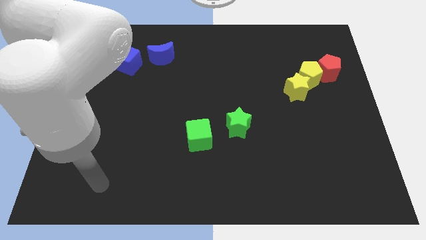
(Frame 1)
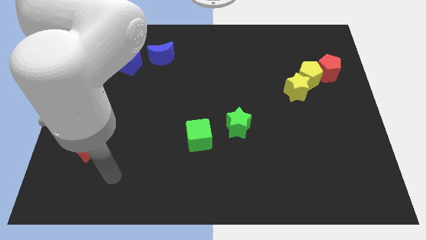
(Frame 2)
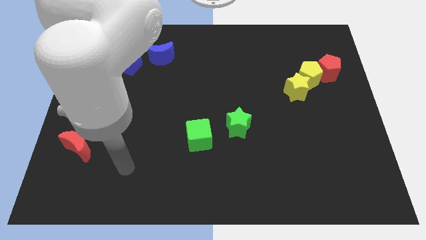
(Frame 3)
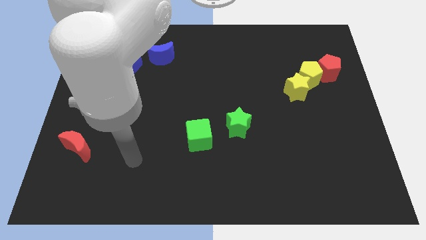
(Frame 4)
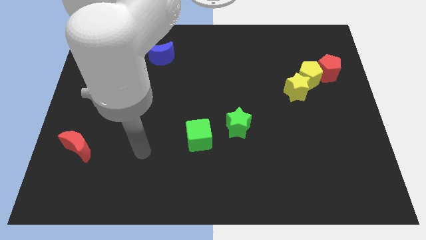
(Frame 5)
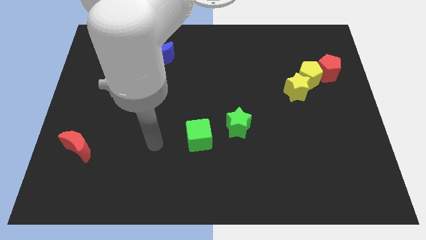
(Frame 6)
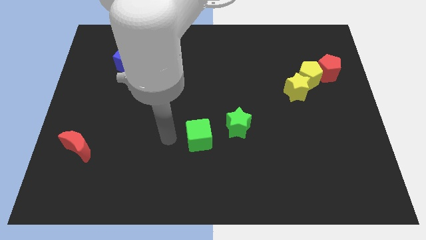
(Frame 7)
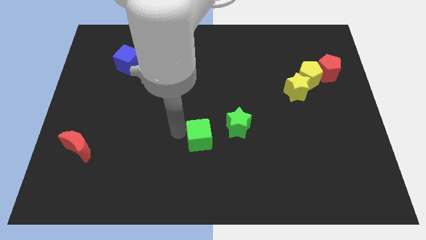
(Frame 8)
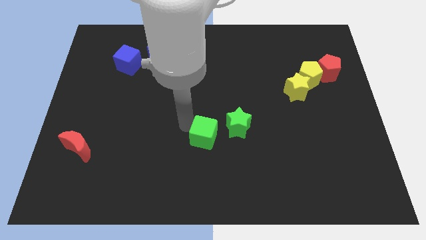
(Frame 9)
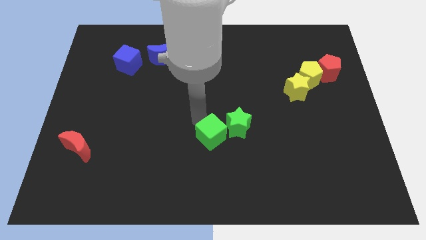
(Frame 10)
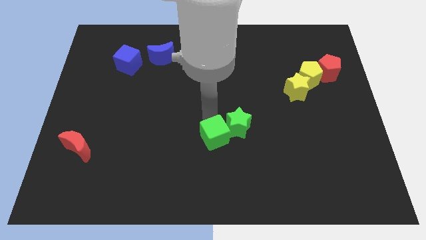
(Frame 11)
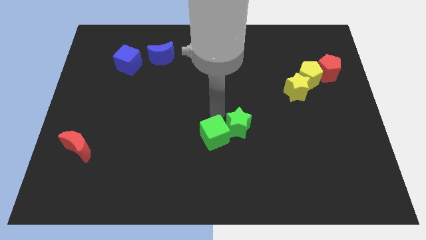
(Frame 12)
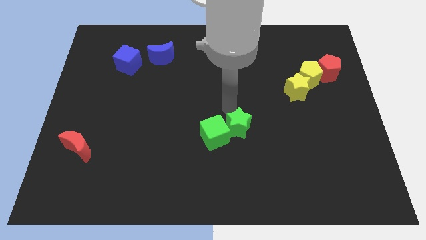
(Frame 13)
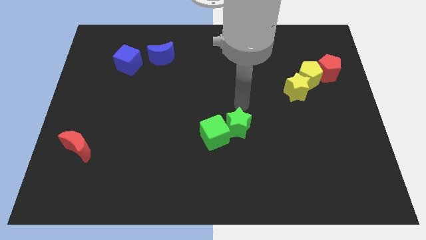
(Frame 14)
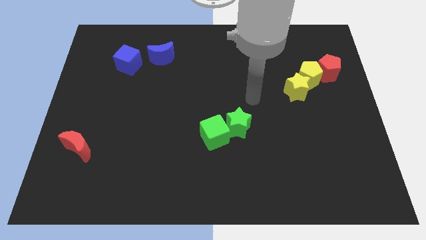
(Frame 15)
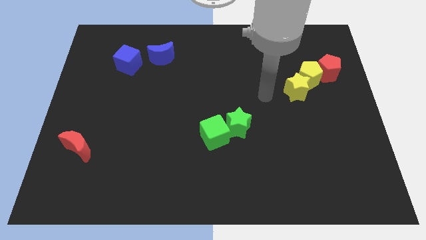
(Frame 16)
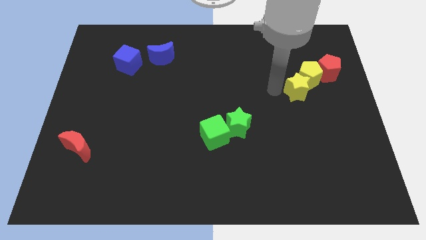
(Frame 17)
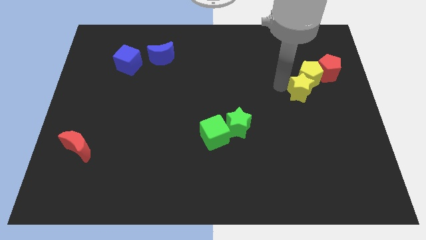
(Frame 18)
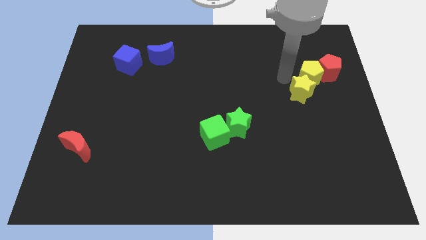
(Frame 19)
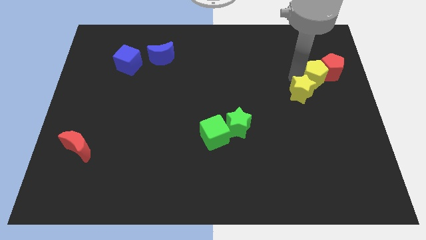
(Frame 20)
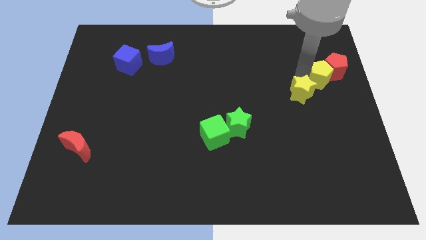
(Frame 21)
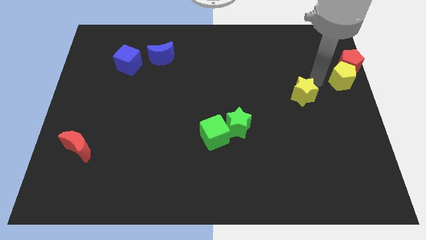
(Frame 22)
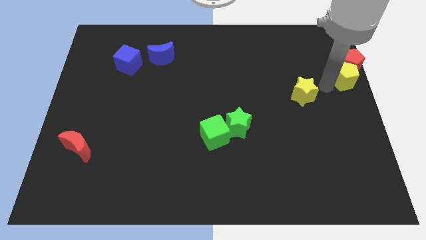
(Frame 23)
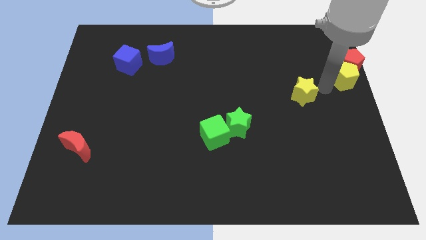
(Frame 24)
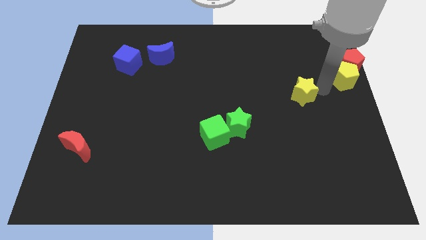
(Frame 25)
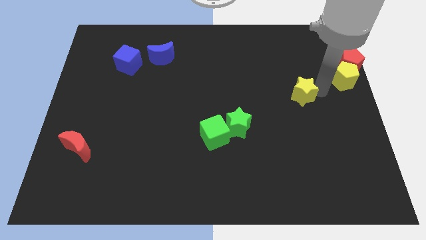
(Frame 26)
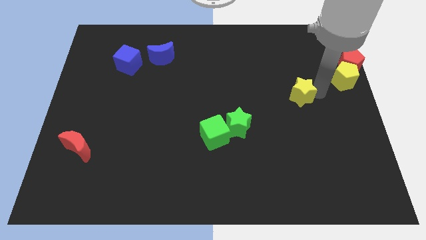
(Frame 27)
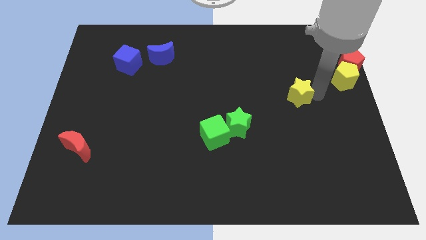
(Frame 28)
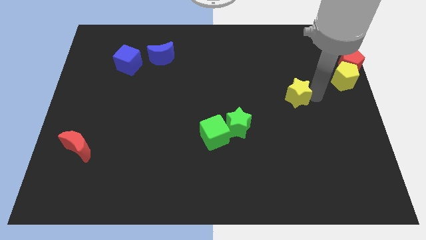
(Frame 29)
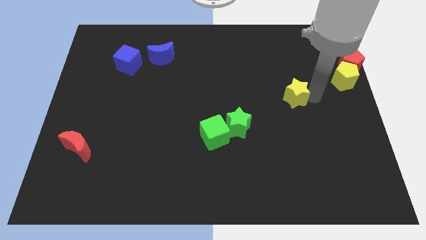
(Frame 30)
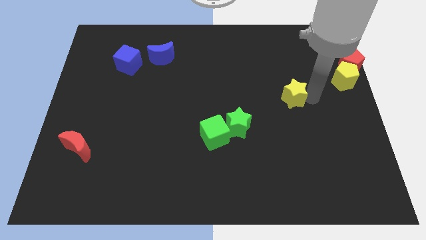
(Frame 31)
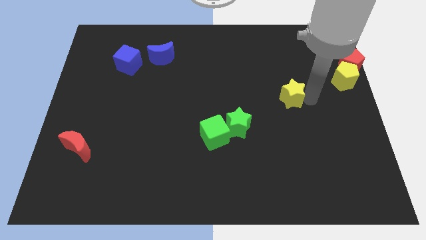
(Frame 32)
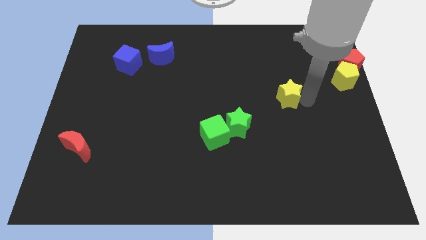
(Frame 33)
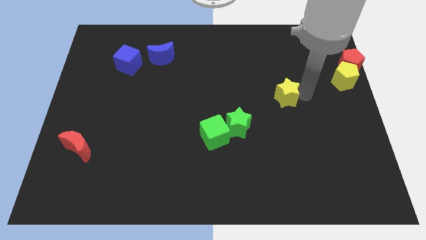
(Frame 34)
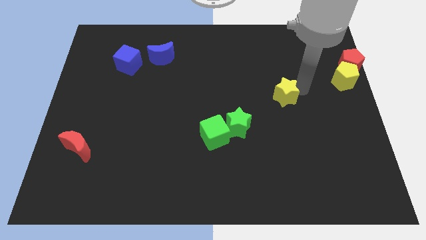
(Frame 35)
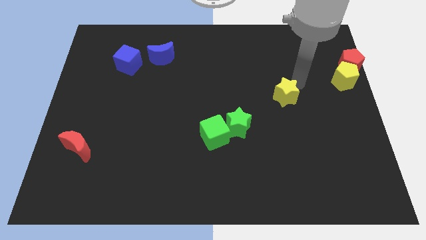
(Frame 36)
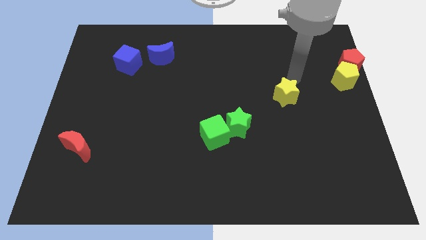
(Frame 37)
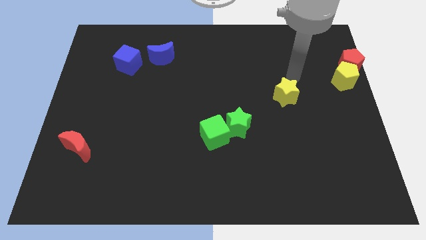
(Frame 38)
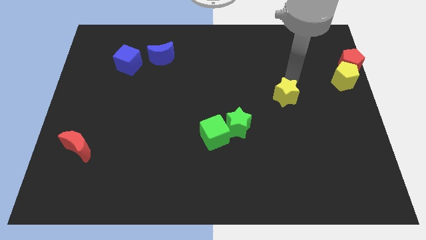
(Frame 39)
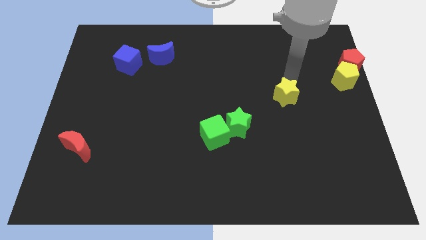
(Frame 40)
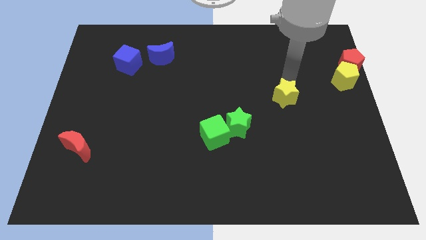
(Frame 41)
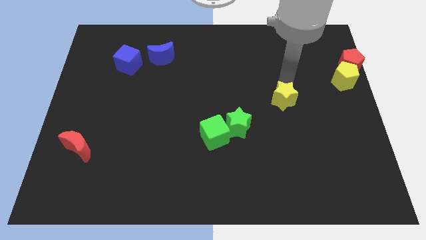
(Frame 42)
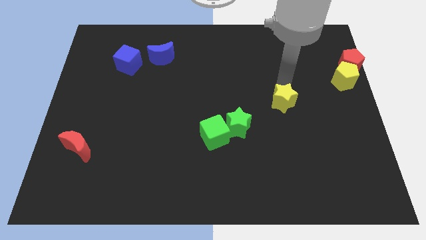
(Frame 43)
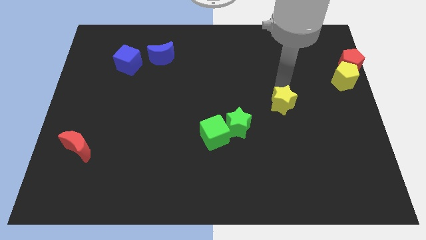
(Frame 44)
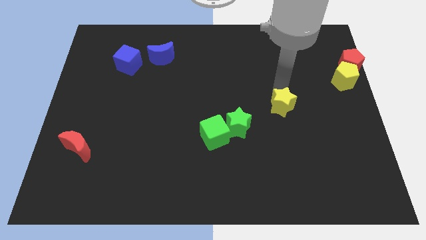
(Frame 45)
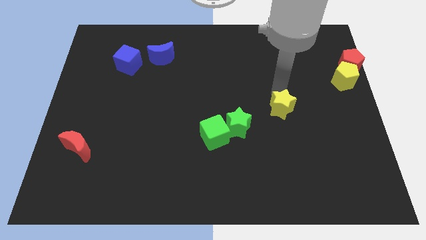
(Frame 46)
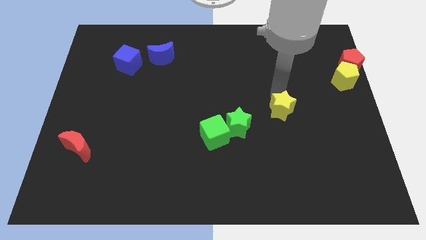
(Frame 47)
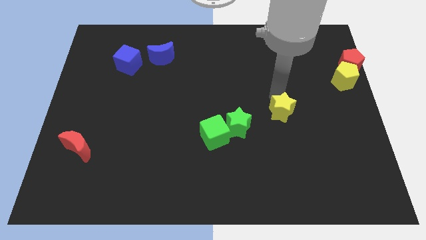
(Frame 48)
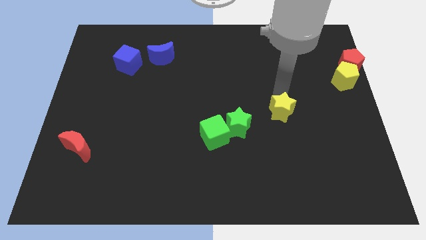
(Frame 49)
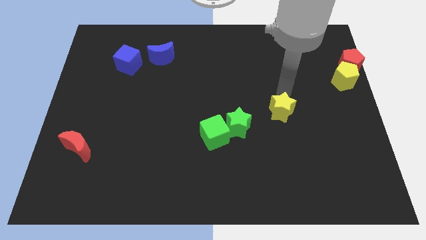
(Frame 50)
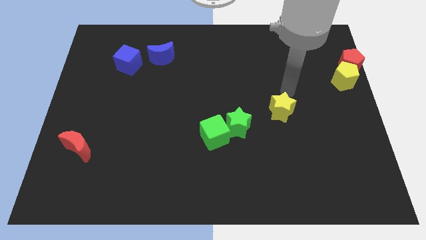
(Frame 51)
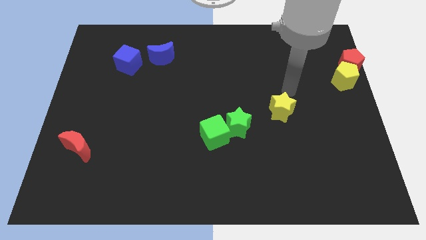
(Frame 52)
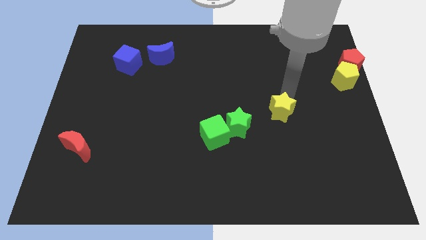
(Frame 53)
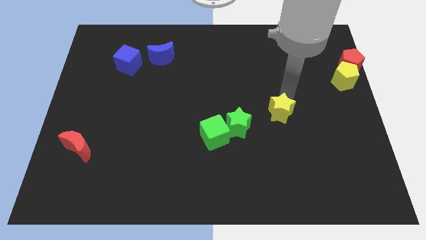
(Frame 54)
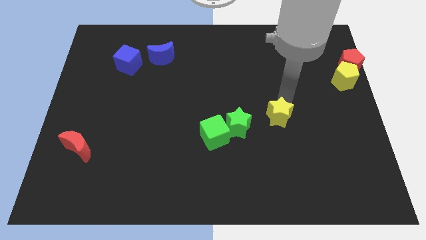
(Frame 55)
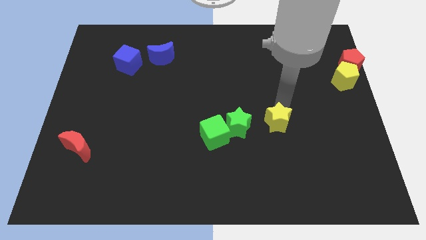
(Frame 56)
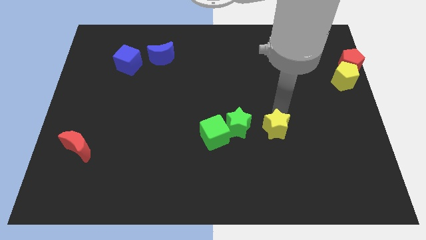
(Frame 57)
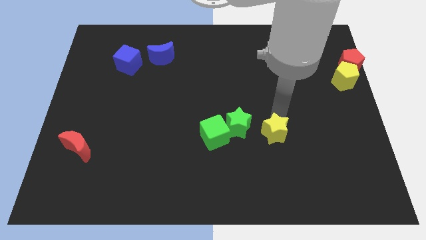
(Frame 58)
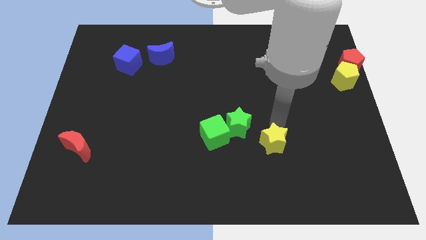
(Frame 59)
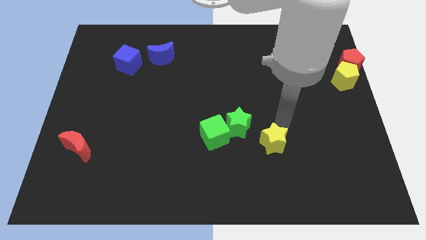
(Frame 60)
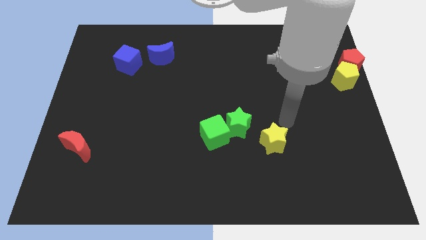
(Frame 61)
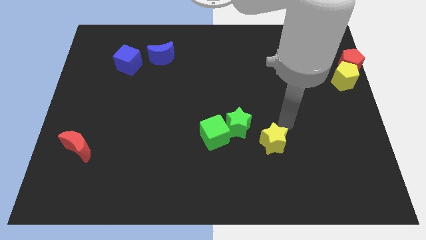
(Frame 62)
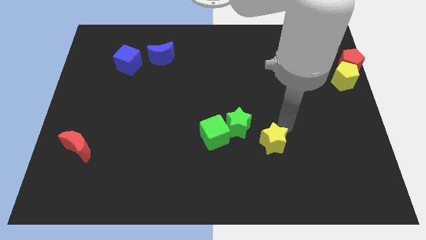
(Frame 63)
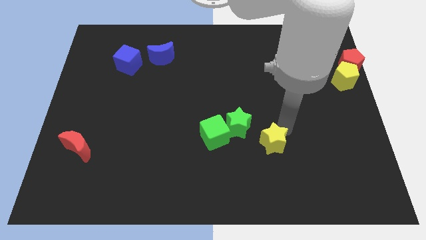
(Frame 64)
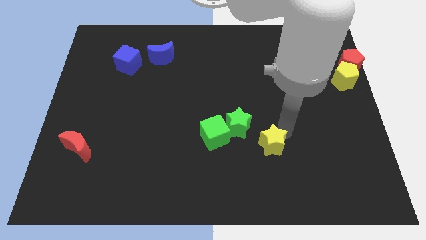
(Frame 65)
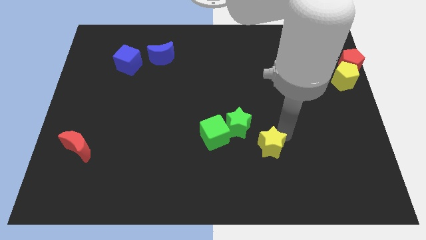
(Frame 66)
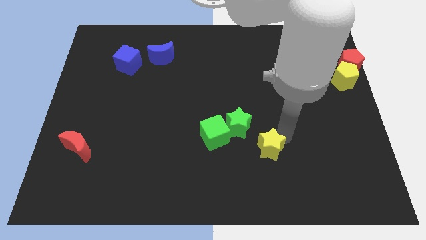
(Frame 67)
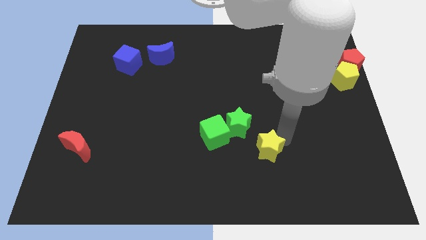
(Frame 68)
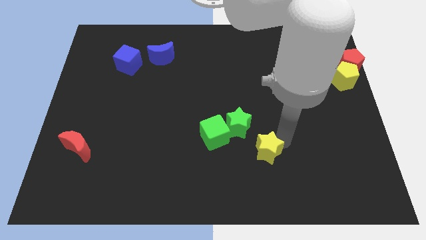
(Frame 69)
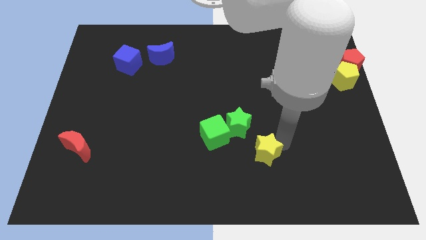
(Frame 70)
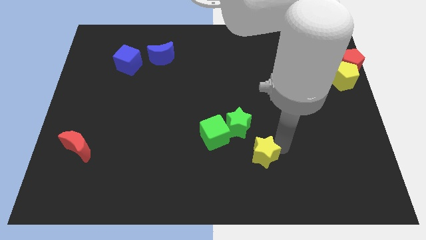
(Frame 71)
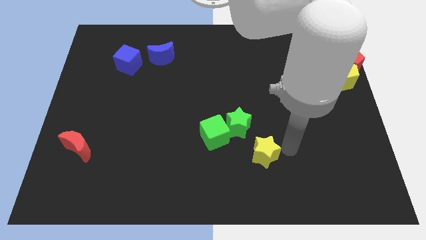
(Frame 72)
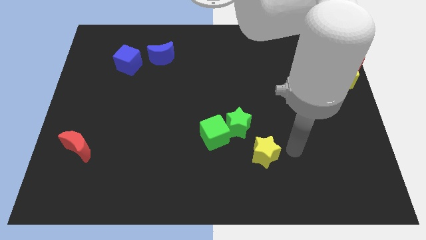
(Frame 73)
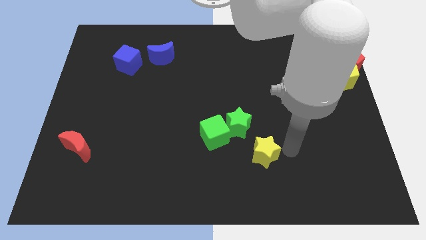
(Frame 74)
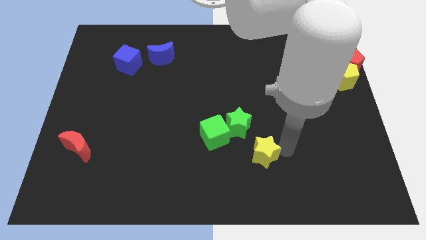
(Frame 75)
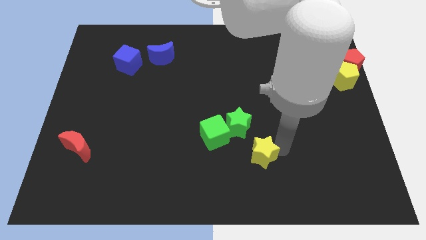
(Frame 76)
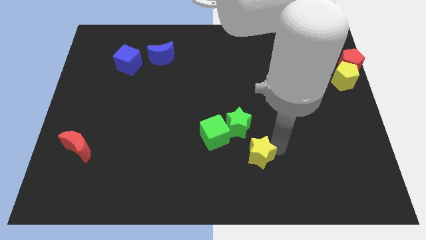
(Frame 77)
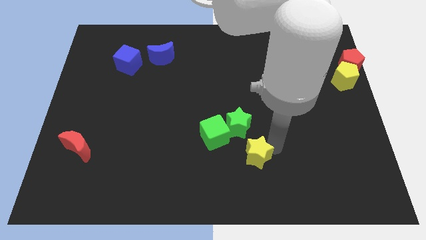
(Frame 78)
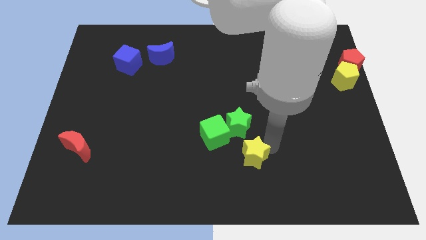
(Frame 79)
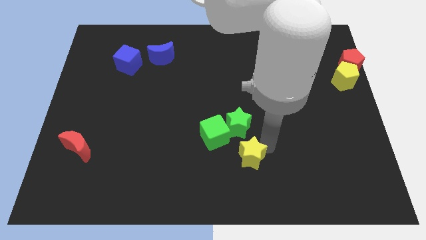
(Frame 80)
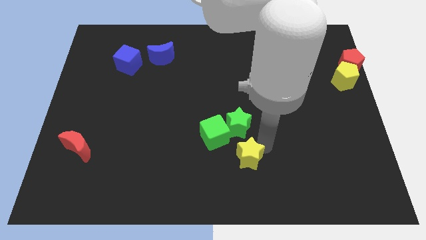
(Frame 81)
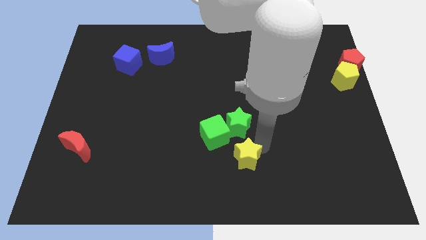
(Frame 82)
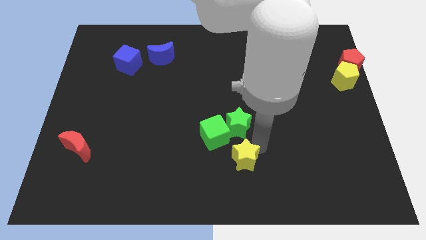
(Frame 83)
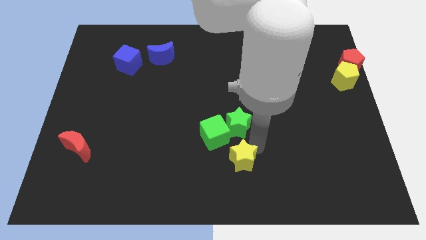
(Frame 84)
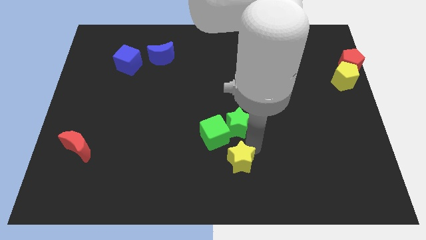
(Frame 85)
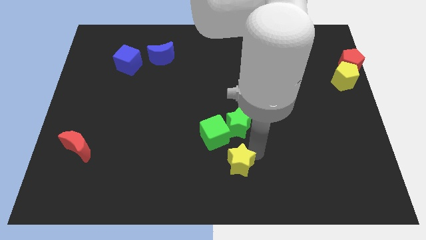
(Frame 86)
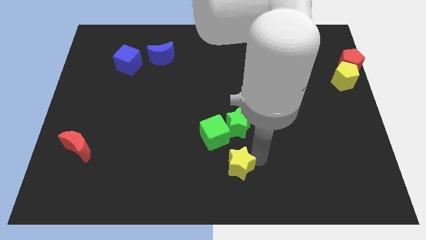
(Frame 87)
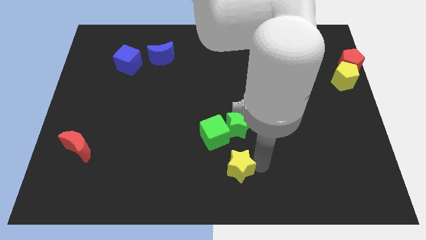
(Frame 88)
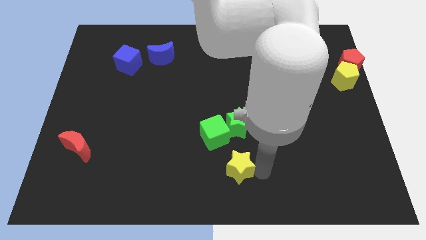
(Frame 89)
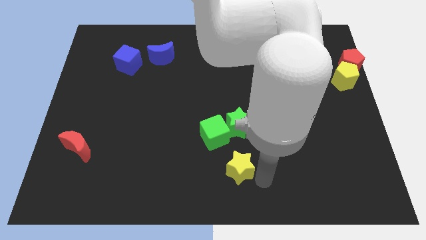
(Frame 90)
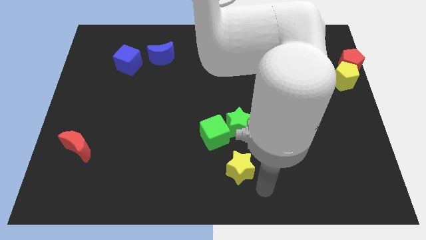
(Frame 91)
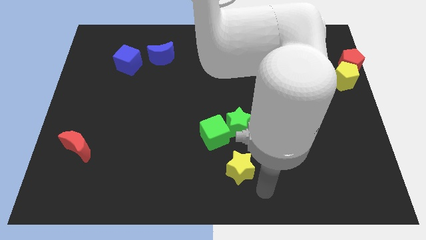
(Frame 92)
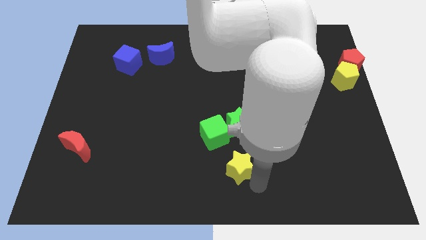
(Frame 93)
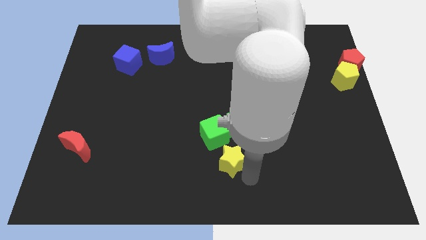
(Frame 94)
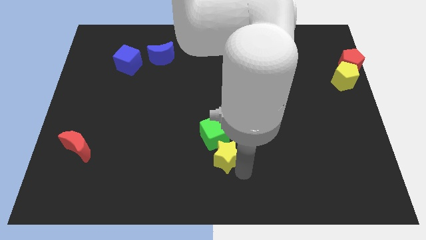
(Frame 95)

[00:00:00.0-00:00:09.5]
move the yellow star diagonally down and to the left of the green star
